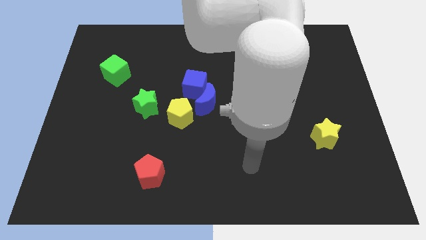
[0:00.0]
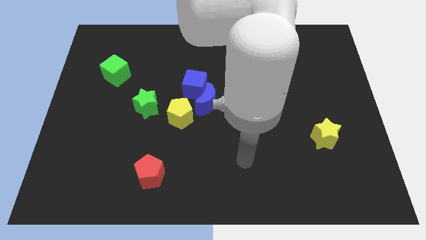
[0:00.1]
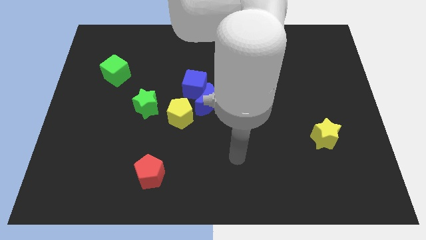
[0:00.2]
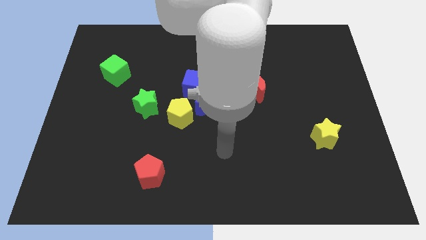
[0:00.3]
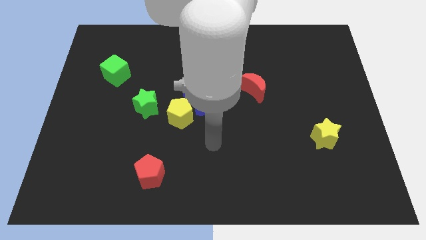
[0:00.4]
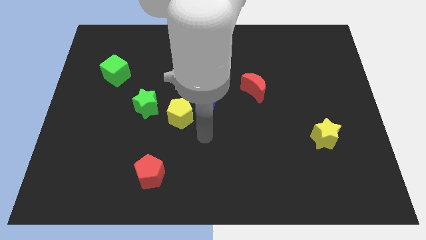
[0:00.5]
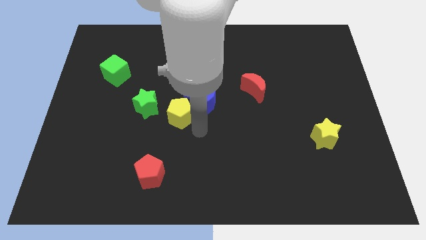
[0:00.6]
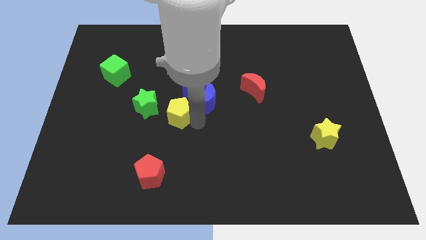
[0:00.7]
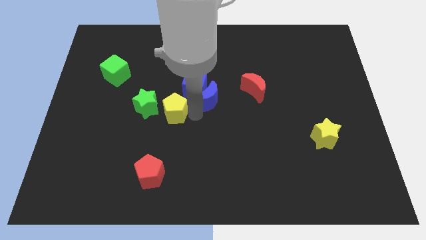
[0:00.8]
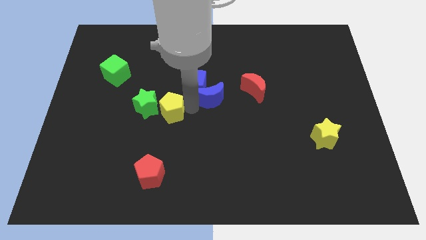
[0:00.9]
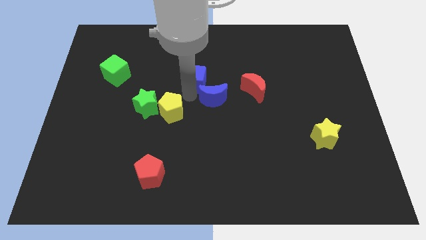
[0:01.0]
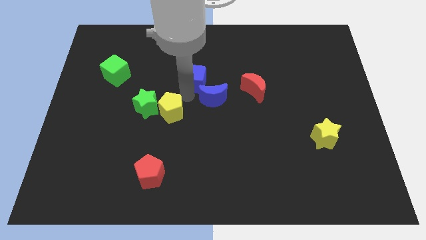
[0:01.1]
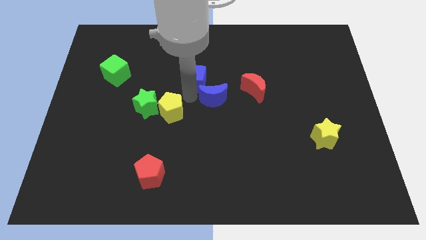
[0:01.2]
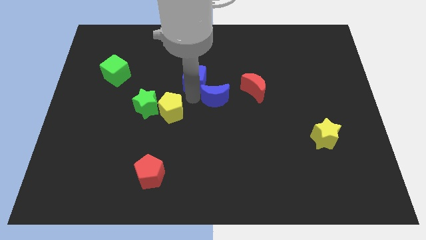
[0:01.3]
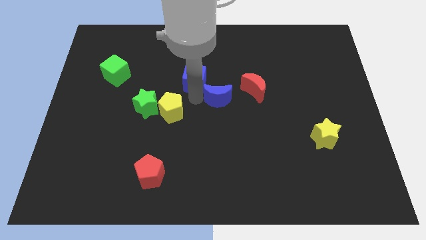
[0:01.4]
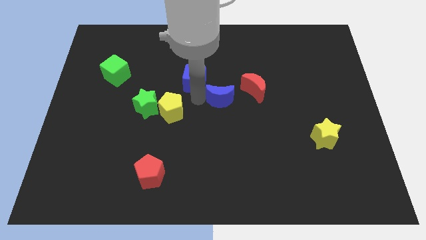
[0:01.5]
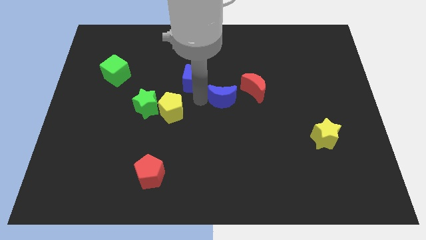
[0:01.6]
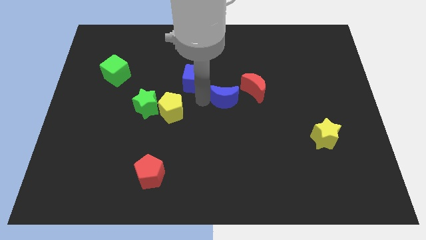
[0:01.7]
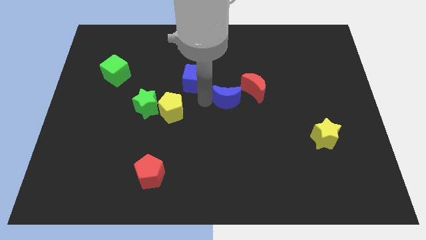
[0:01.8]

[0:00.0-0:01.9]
pull the blue moon apart from the blue cube and yellow pentagon

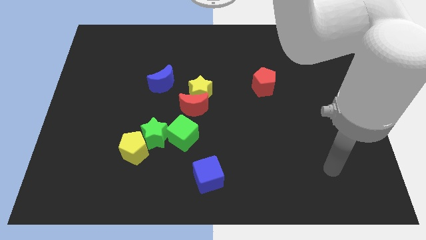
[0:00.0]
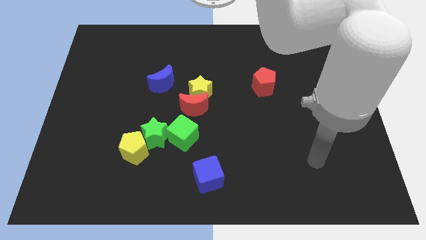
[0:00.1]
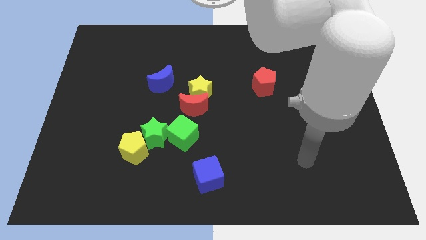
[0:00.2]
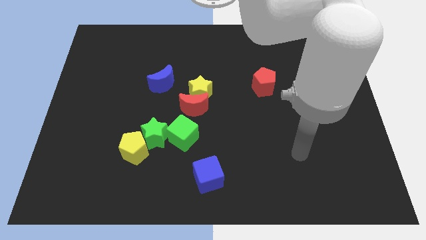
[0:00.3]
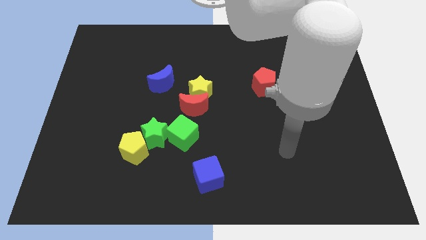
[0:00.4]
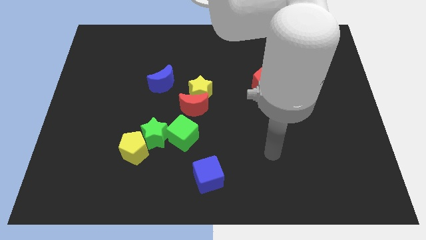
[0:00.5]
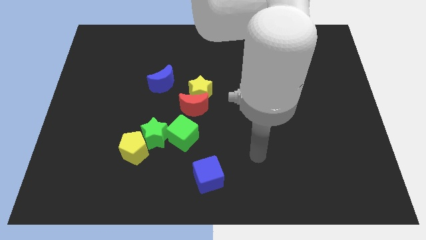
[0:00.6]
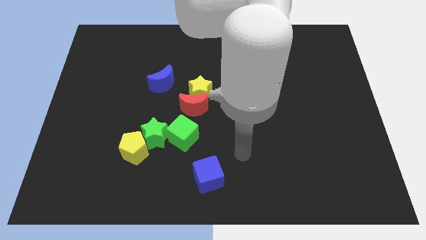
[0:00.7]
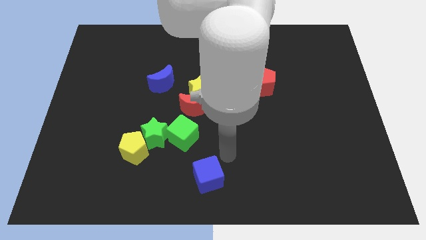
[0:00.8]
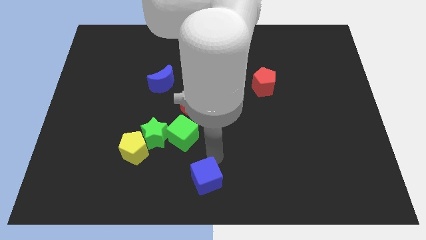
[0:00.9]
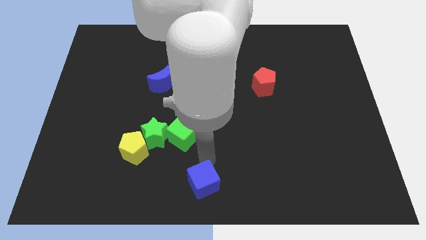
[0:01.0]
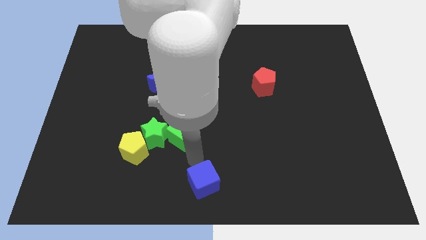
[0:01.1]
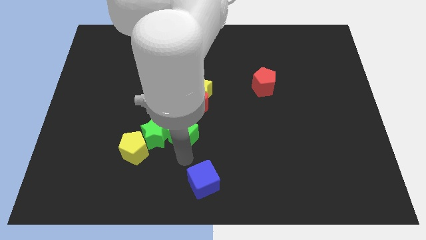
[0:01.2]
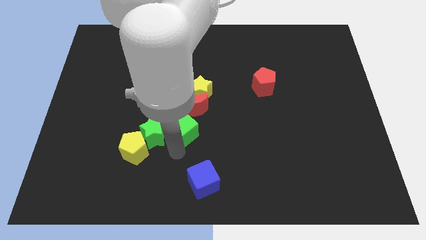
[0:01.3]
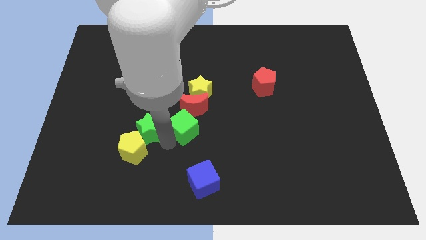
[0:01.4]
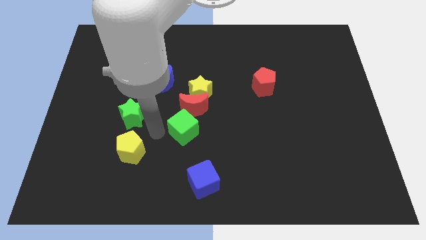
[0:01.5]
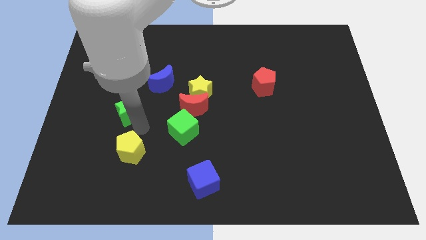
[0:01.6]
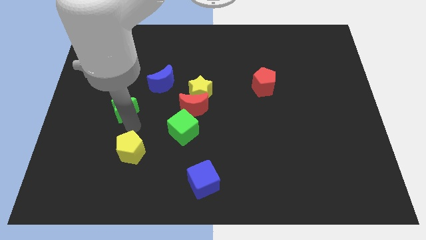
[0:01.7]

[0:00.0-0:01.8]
separate the yellow pentagon from the green star

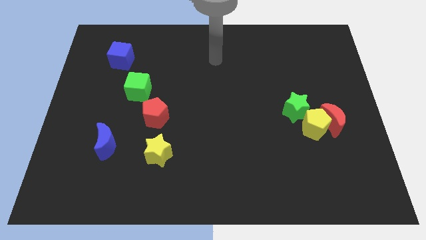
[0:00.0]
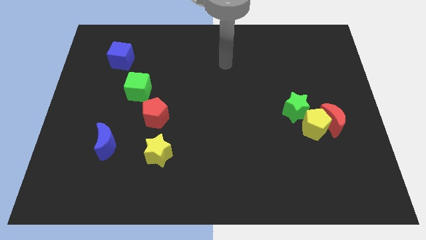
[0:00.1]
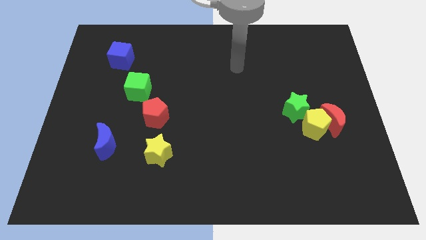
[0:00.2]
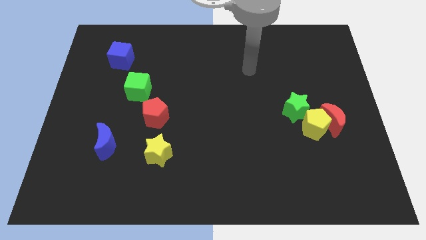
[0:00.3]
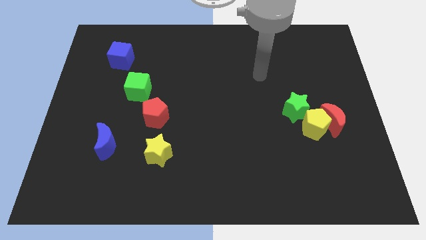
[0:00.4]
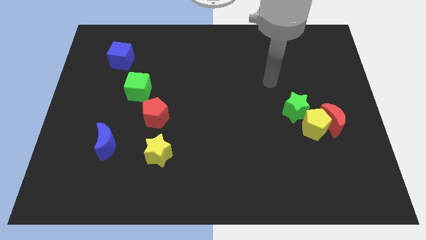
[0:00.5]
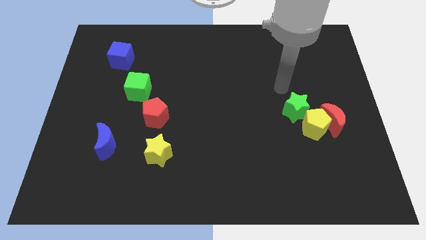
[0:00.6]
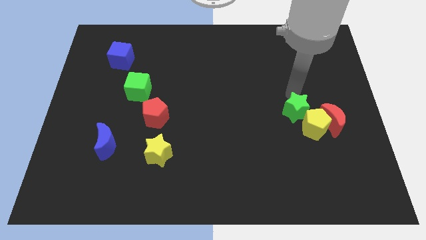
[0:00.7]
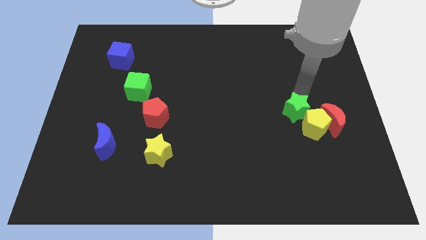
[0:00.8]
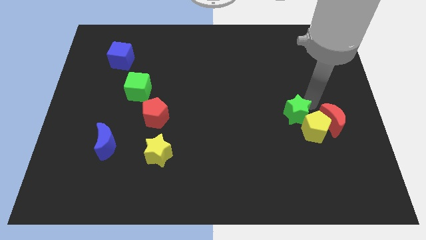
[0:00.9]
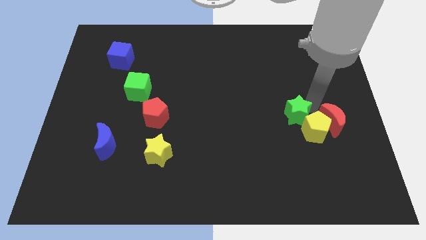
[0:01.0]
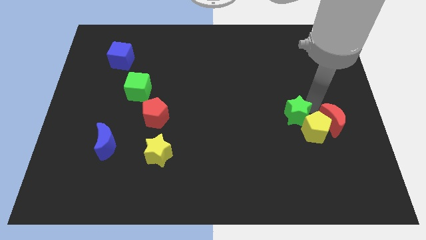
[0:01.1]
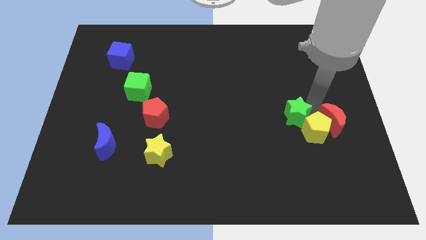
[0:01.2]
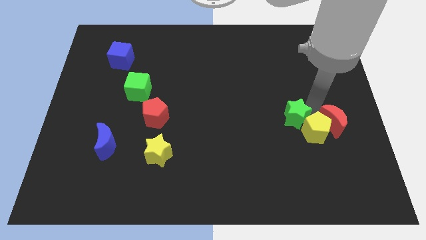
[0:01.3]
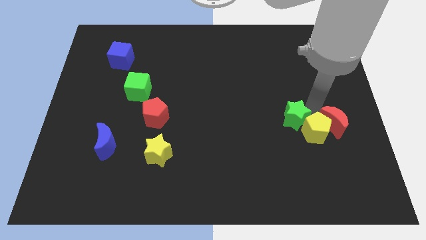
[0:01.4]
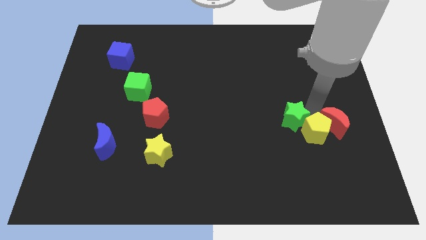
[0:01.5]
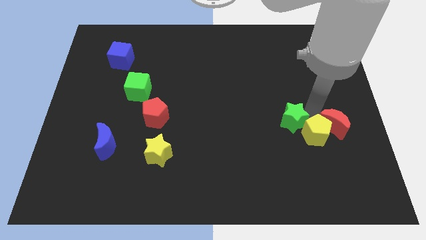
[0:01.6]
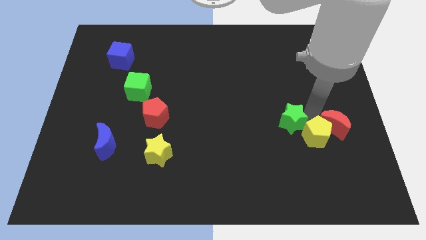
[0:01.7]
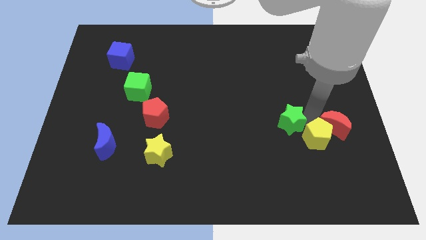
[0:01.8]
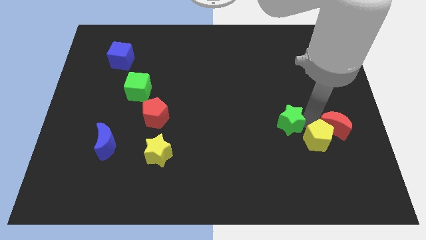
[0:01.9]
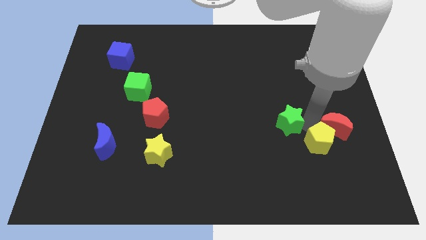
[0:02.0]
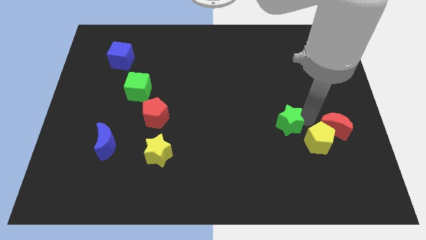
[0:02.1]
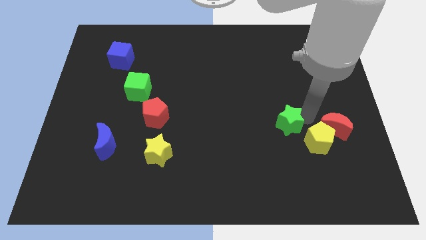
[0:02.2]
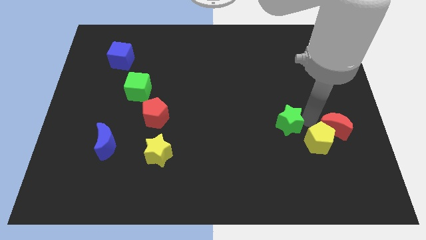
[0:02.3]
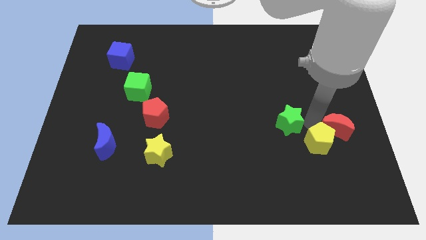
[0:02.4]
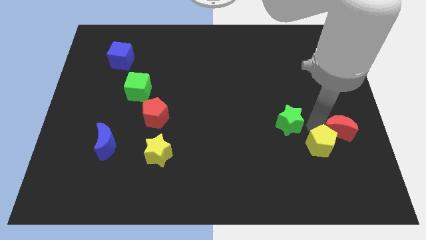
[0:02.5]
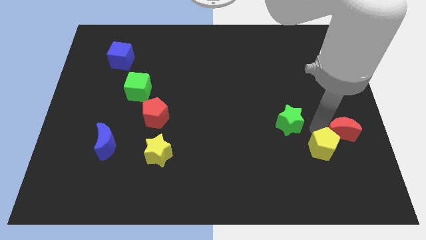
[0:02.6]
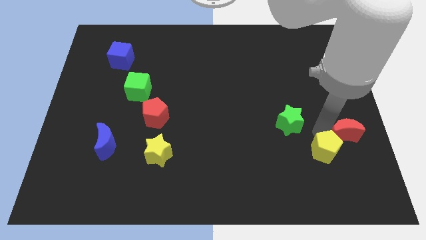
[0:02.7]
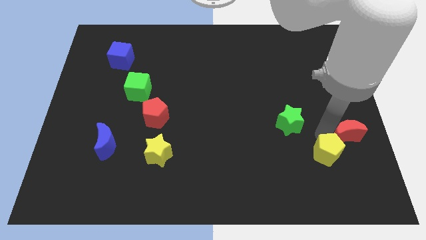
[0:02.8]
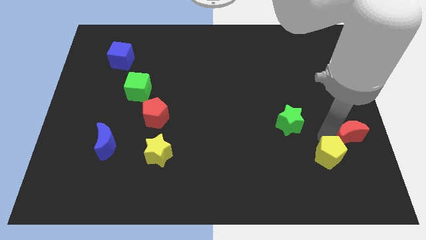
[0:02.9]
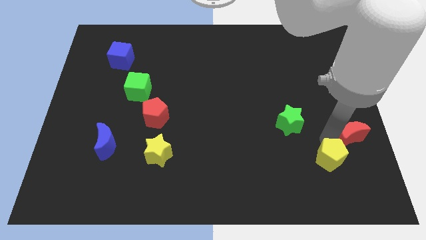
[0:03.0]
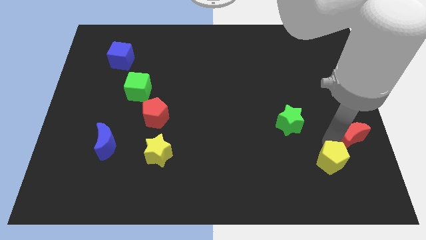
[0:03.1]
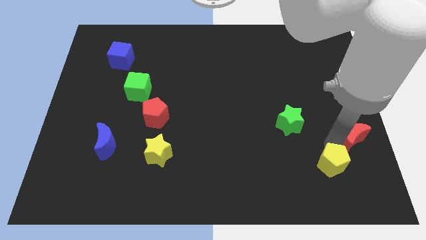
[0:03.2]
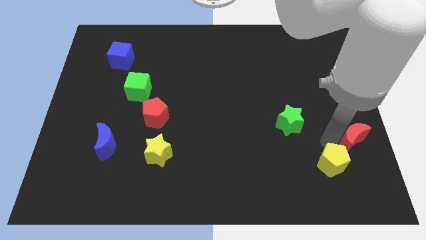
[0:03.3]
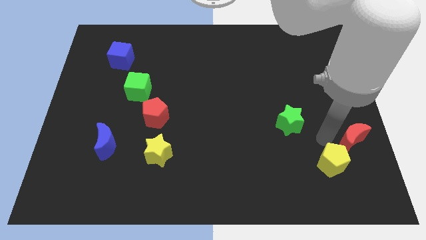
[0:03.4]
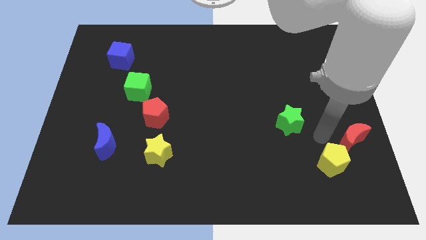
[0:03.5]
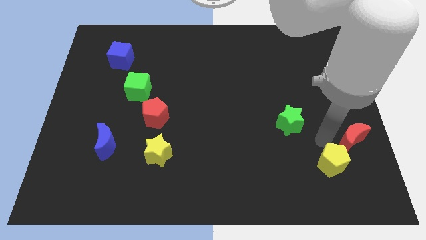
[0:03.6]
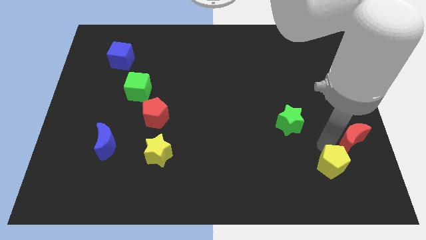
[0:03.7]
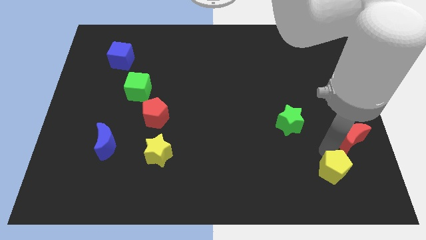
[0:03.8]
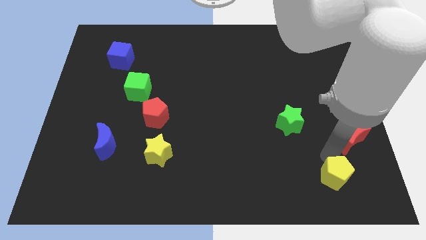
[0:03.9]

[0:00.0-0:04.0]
pull the yellow pentagon apart from the red moon and green star

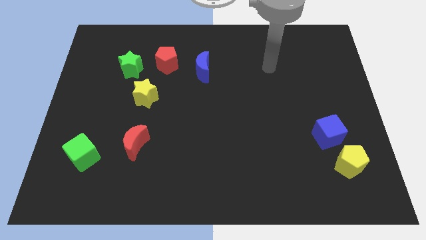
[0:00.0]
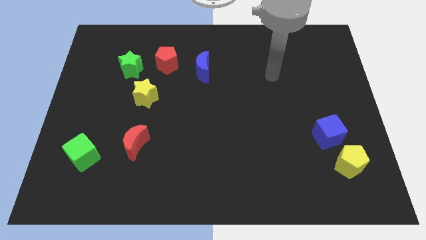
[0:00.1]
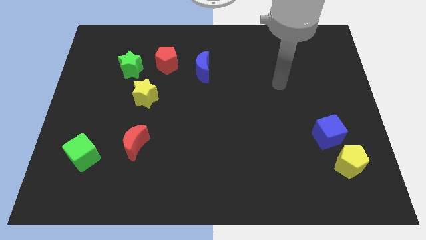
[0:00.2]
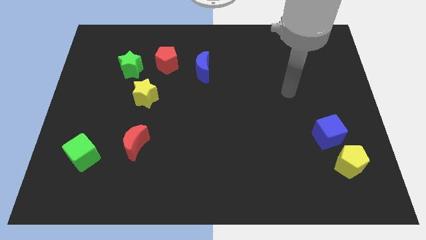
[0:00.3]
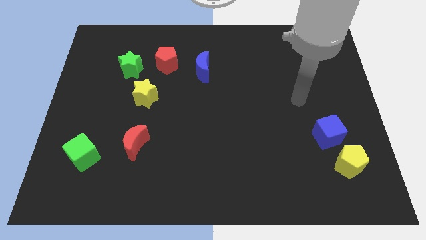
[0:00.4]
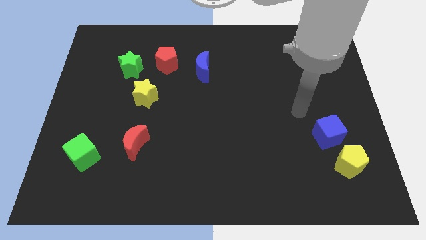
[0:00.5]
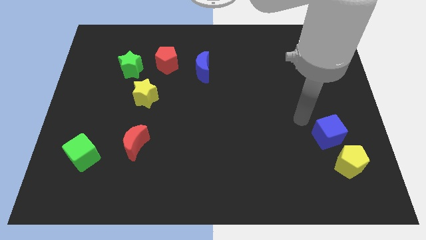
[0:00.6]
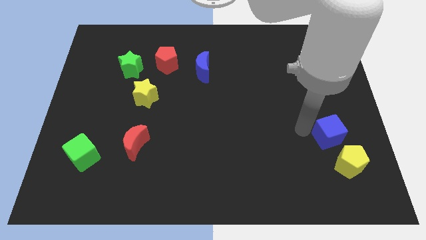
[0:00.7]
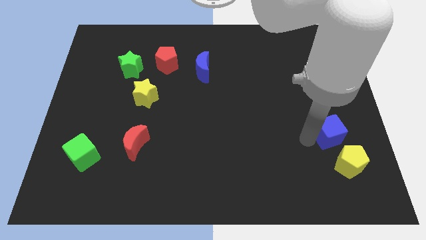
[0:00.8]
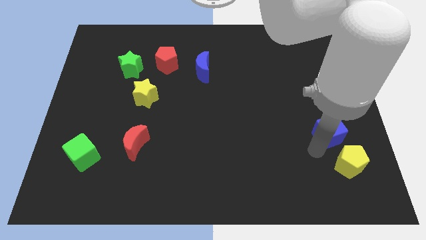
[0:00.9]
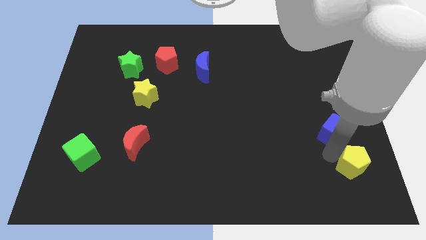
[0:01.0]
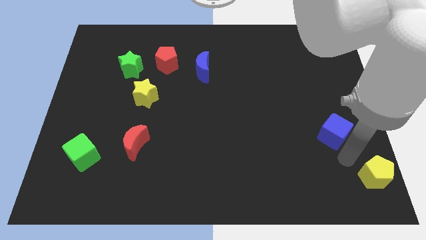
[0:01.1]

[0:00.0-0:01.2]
separate the blue cube from the yellow pentagon

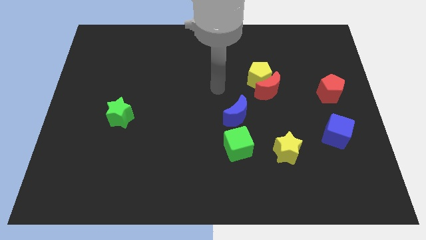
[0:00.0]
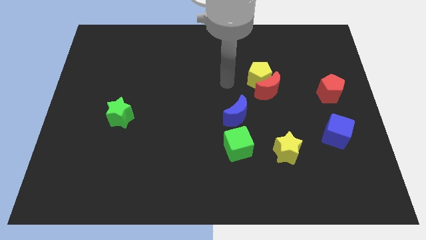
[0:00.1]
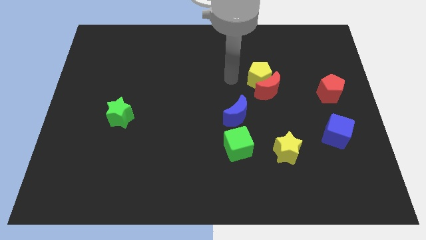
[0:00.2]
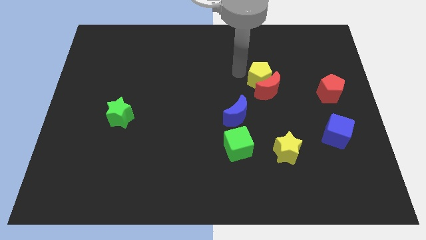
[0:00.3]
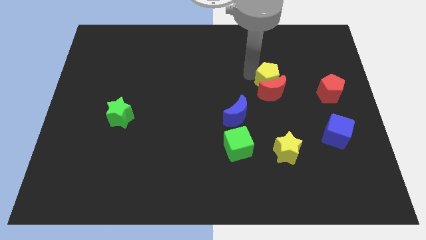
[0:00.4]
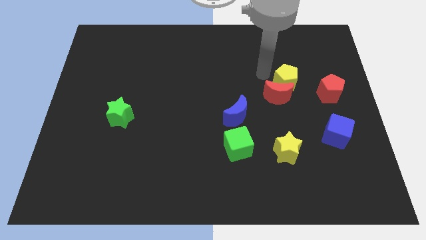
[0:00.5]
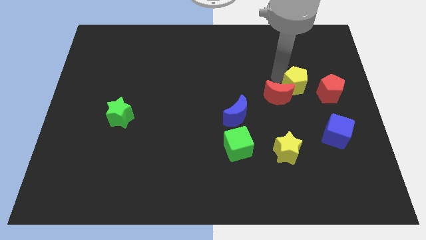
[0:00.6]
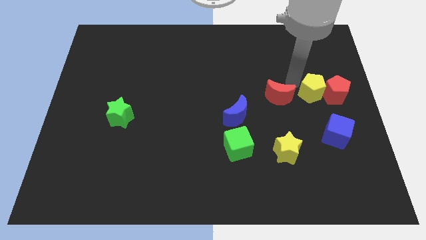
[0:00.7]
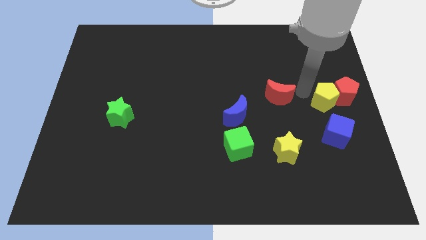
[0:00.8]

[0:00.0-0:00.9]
move the red moon away from the yellow pentagon
